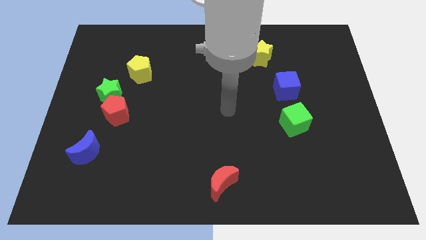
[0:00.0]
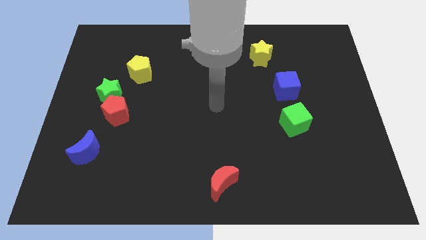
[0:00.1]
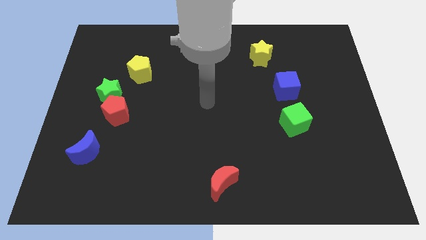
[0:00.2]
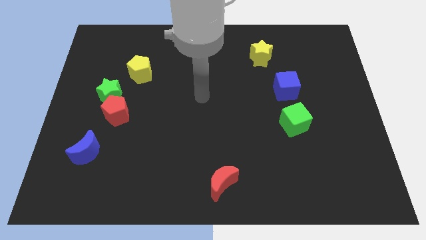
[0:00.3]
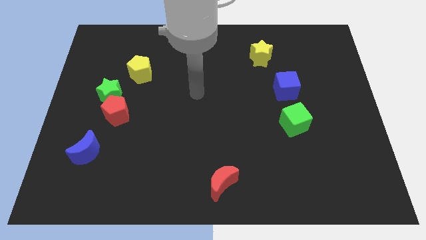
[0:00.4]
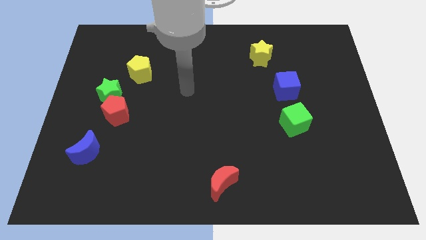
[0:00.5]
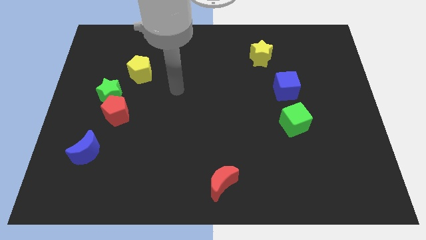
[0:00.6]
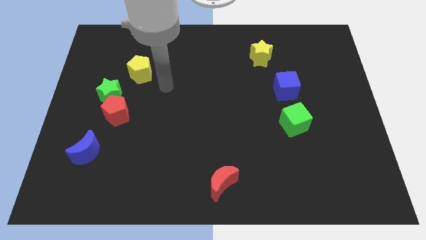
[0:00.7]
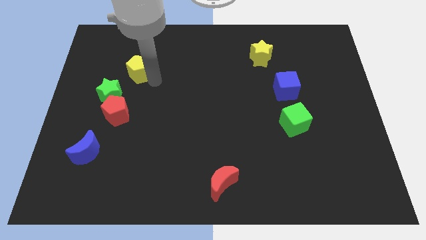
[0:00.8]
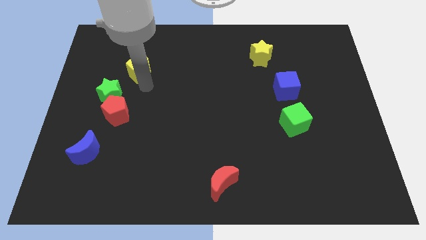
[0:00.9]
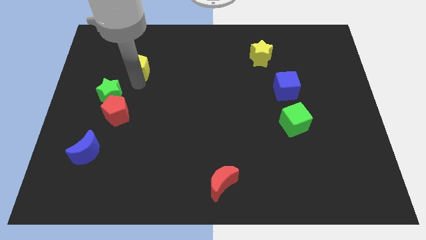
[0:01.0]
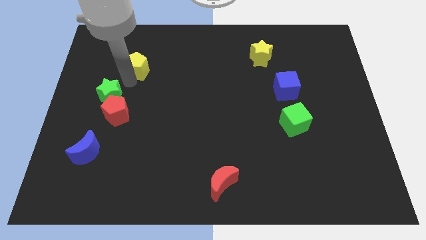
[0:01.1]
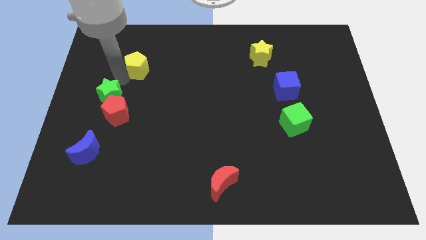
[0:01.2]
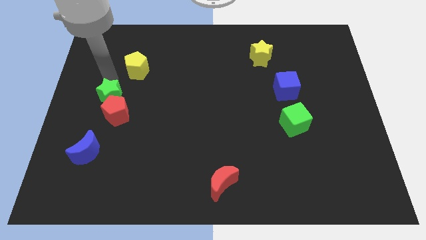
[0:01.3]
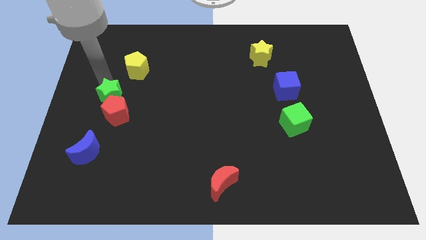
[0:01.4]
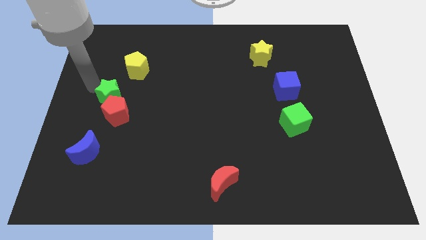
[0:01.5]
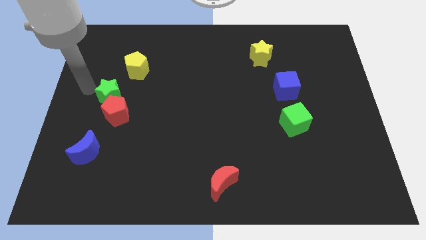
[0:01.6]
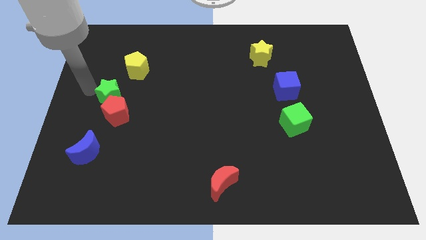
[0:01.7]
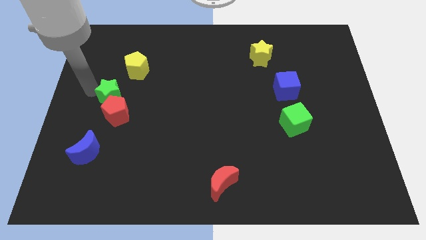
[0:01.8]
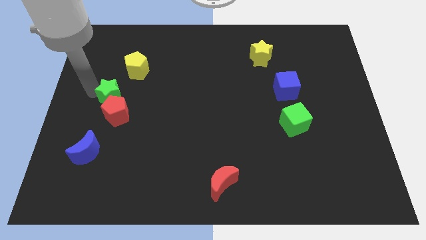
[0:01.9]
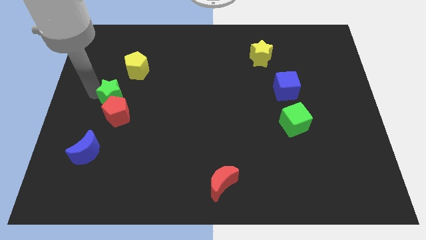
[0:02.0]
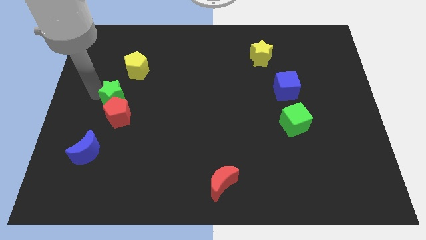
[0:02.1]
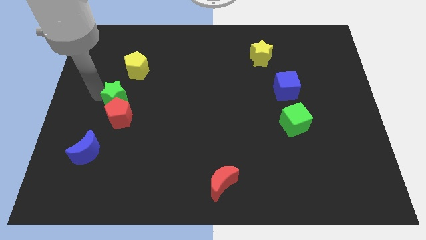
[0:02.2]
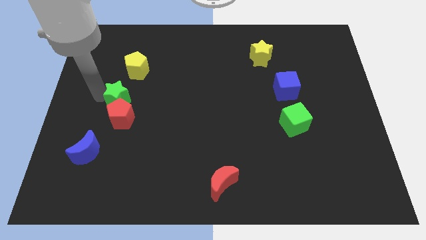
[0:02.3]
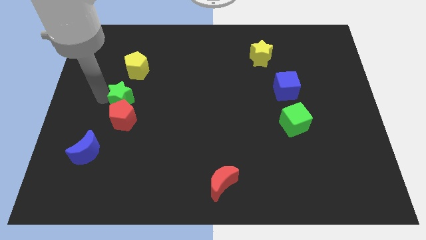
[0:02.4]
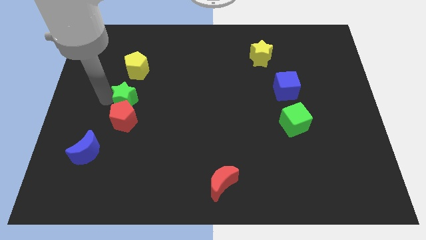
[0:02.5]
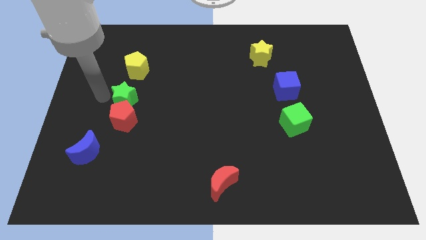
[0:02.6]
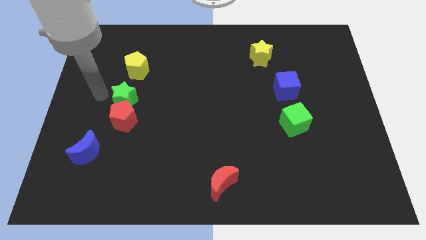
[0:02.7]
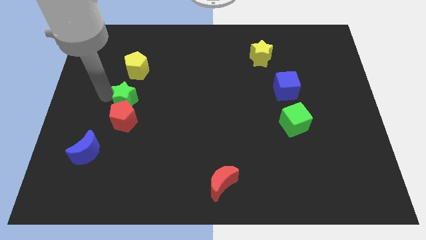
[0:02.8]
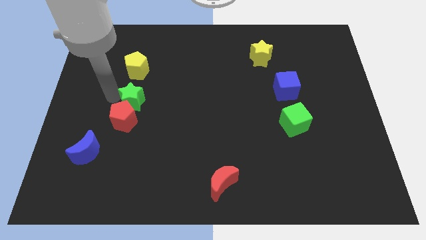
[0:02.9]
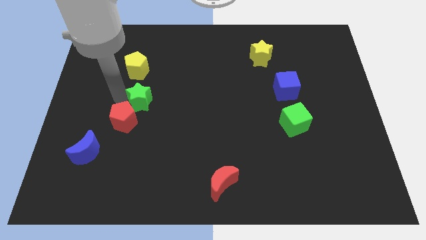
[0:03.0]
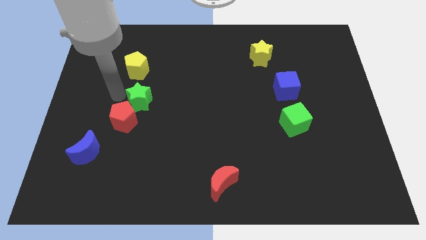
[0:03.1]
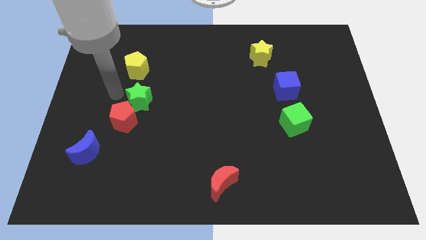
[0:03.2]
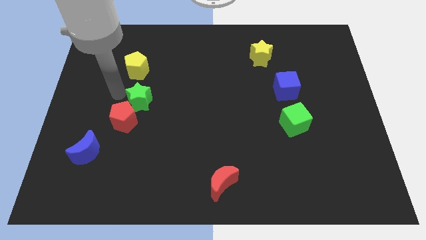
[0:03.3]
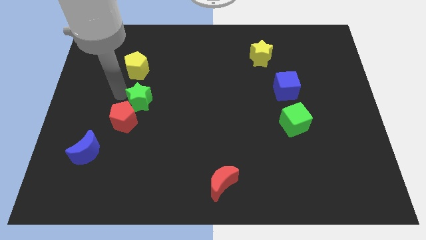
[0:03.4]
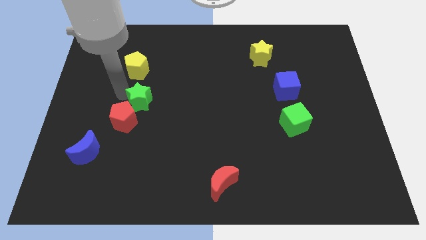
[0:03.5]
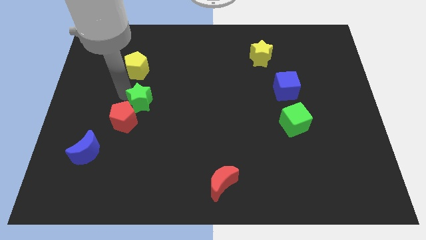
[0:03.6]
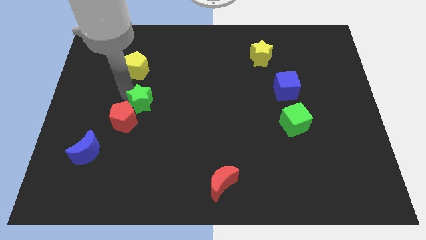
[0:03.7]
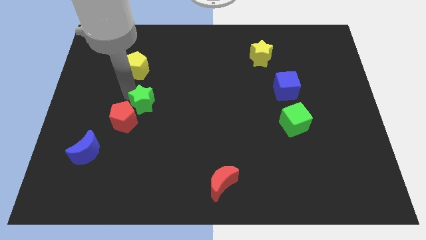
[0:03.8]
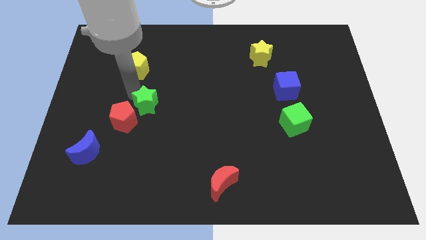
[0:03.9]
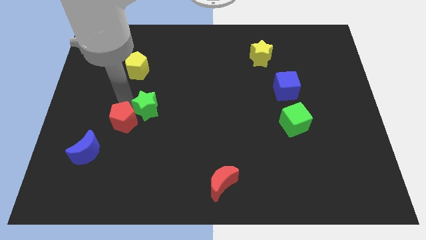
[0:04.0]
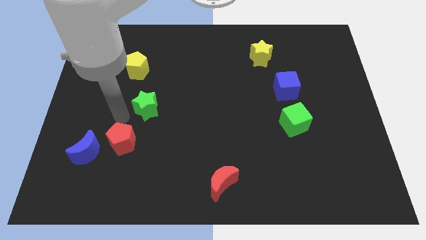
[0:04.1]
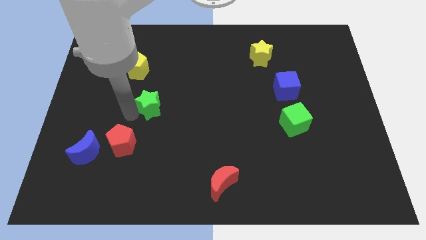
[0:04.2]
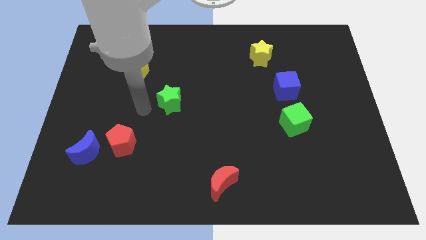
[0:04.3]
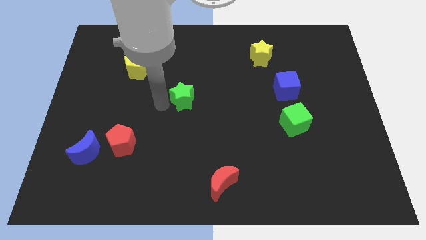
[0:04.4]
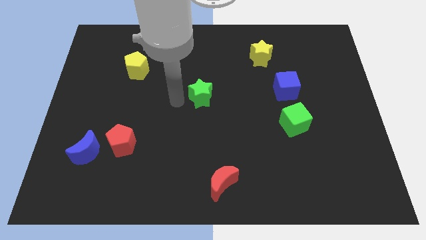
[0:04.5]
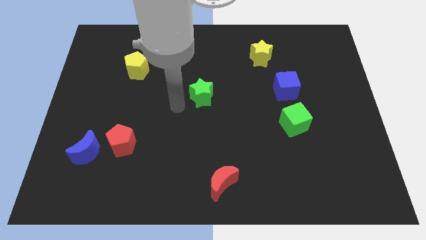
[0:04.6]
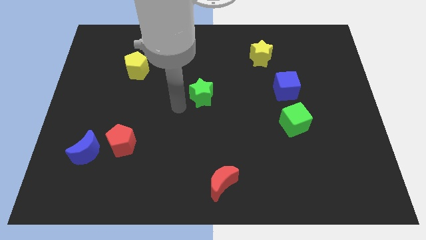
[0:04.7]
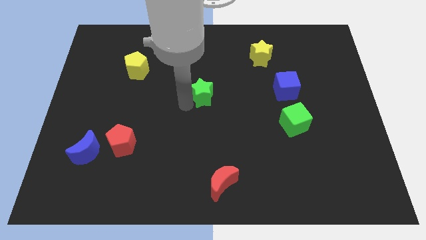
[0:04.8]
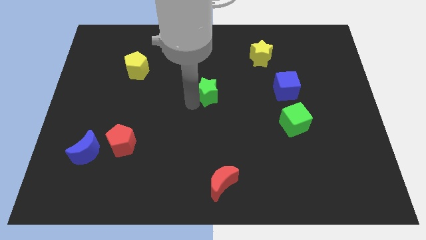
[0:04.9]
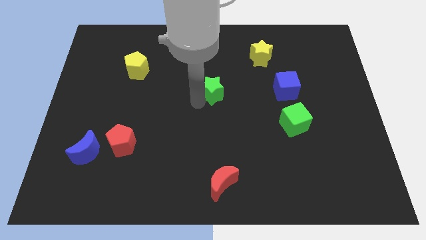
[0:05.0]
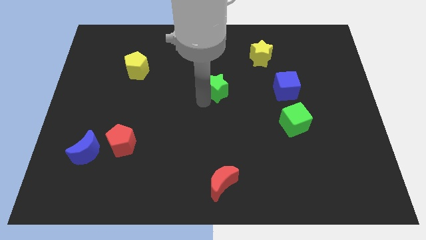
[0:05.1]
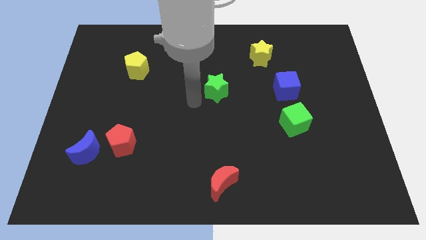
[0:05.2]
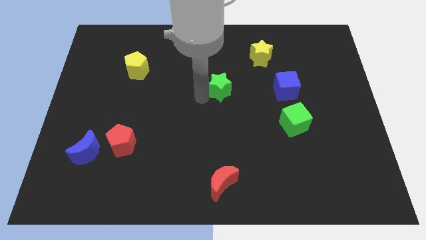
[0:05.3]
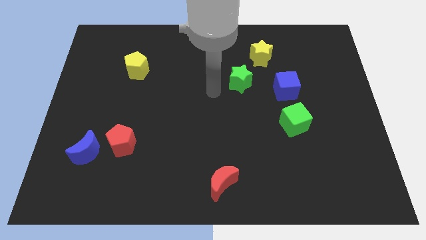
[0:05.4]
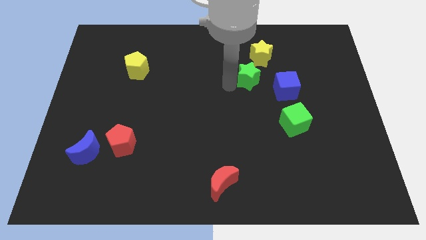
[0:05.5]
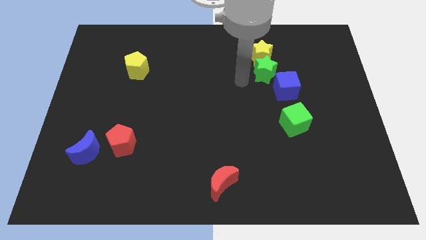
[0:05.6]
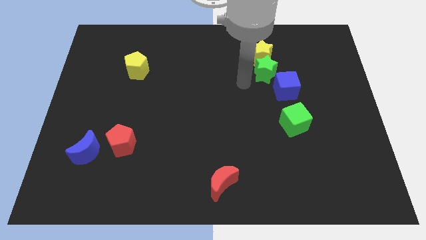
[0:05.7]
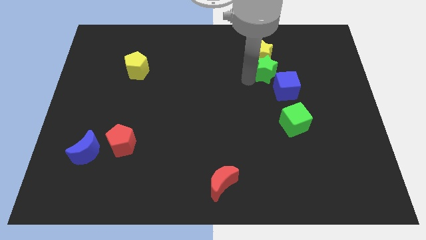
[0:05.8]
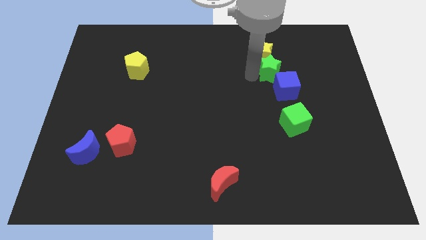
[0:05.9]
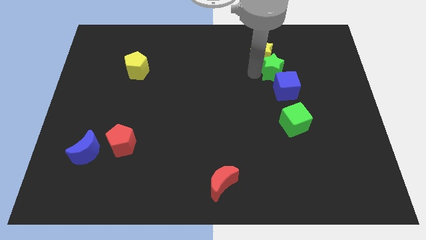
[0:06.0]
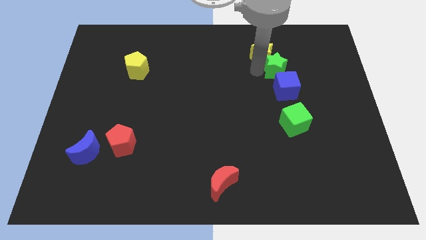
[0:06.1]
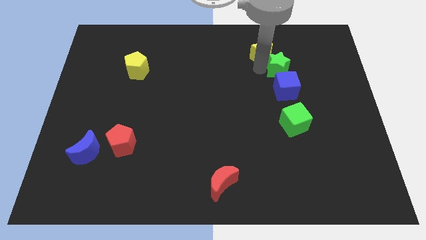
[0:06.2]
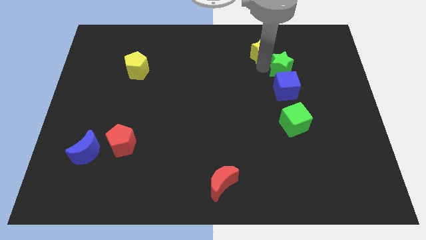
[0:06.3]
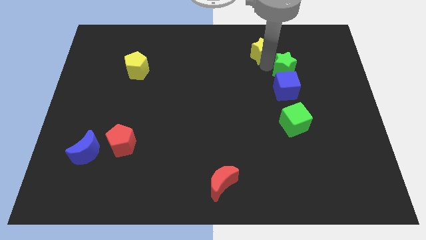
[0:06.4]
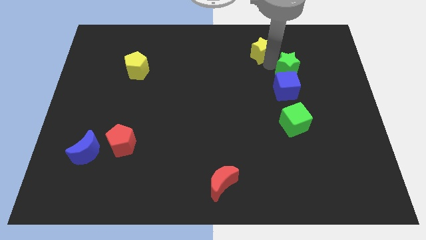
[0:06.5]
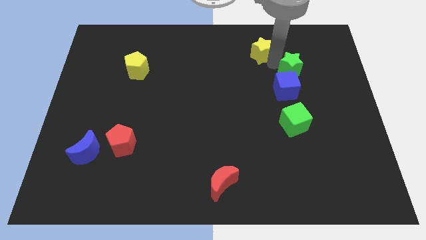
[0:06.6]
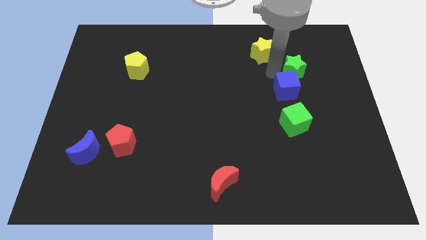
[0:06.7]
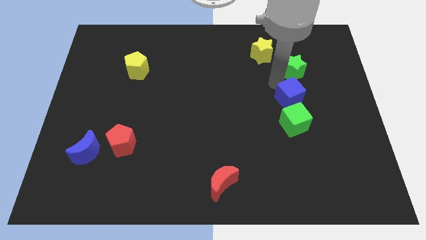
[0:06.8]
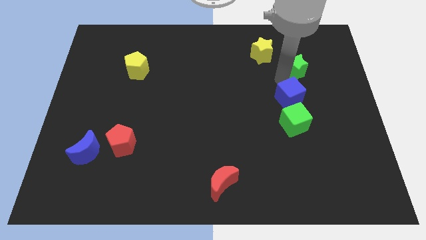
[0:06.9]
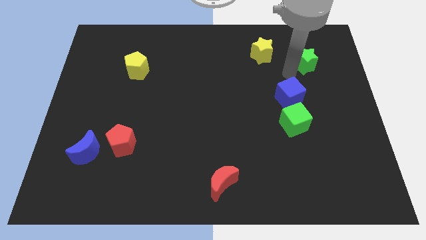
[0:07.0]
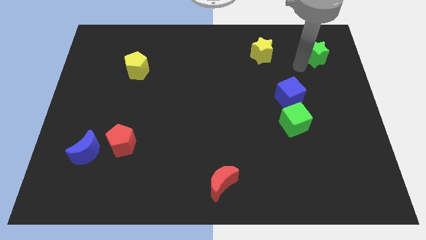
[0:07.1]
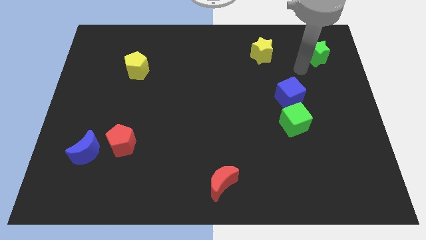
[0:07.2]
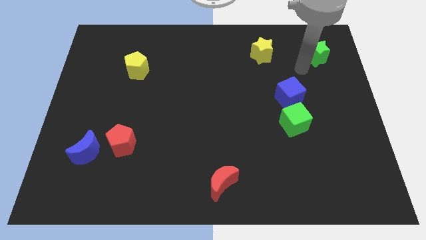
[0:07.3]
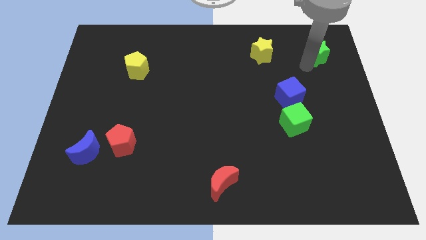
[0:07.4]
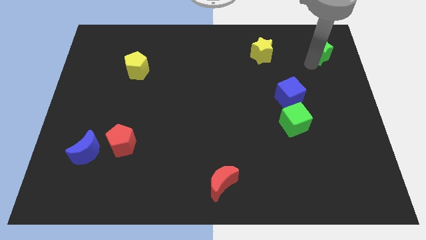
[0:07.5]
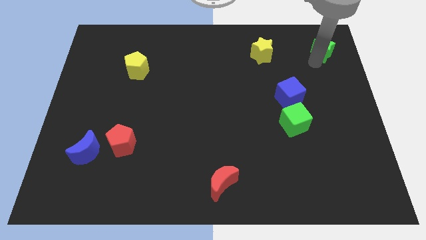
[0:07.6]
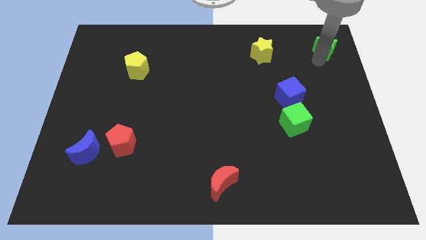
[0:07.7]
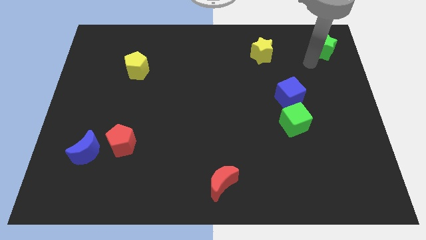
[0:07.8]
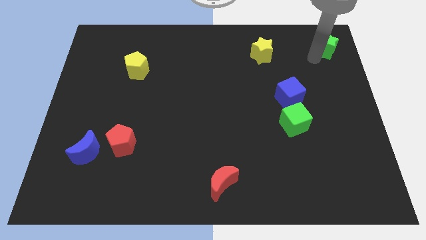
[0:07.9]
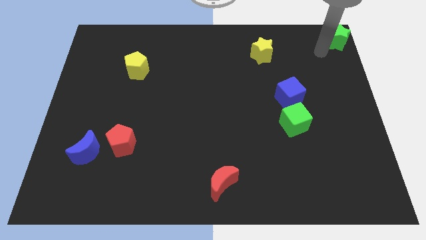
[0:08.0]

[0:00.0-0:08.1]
move the green star to the top right of the board
